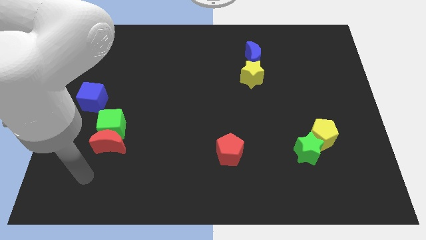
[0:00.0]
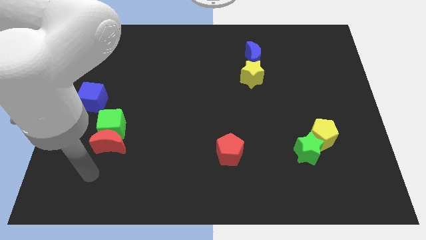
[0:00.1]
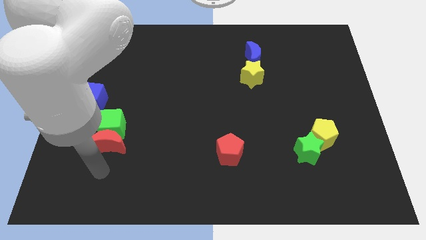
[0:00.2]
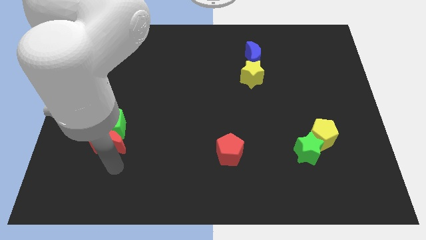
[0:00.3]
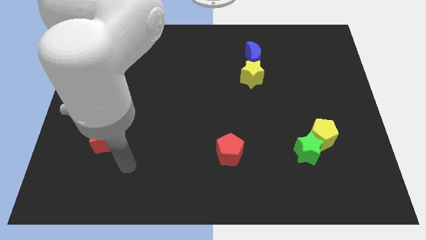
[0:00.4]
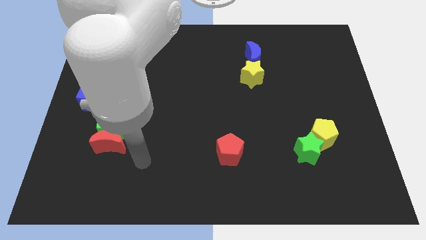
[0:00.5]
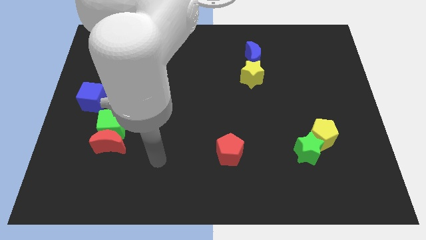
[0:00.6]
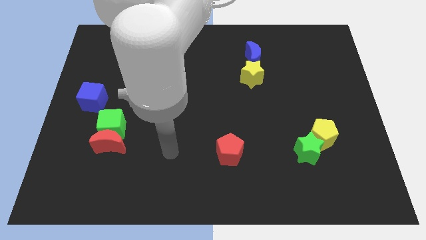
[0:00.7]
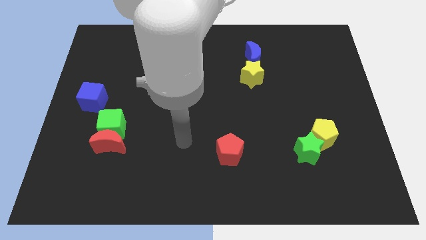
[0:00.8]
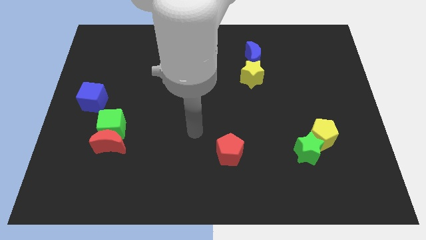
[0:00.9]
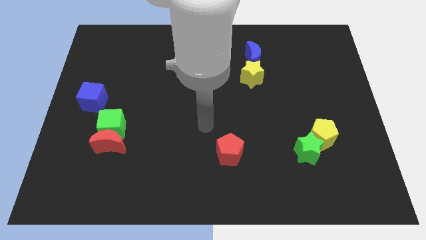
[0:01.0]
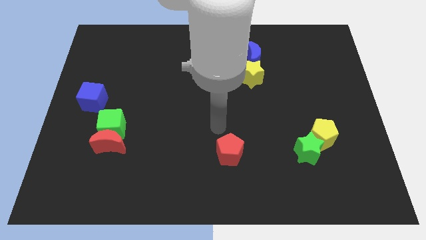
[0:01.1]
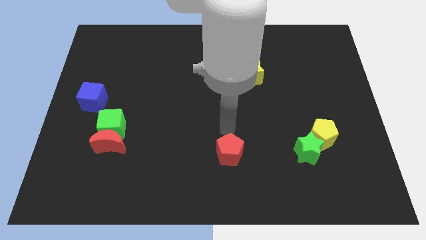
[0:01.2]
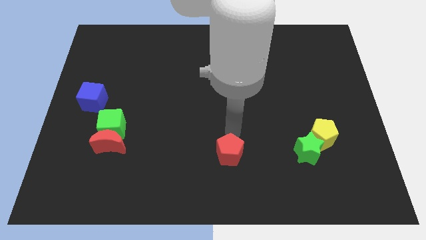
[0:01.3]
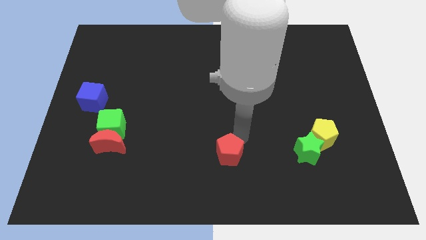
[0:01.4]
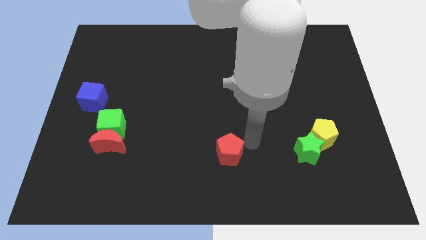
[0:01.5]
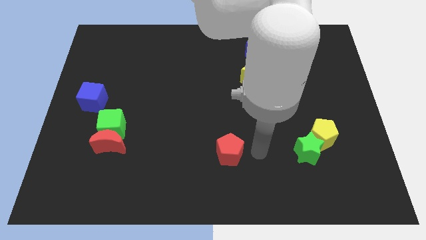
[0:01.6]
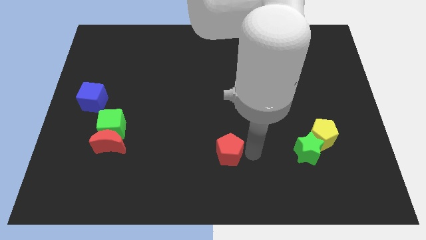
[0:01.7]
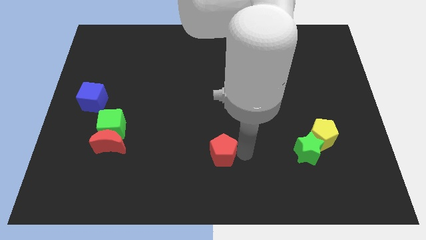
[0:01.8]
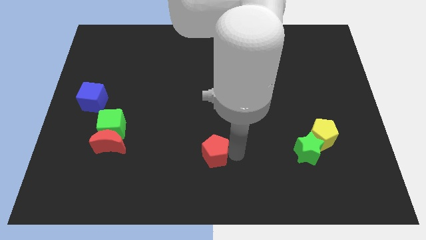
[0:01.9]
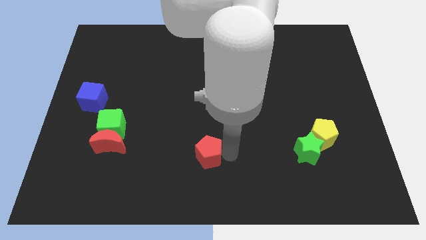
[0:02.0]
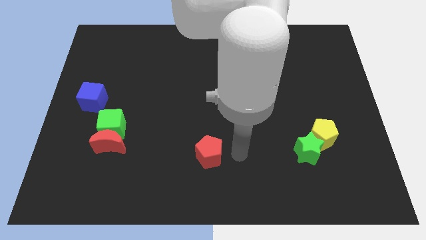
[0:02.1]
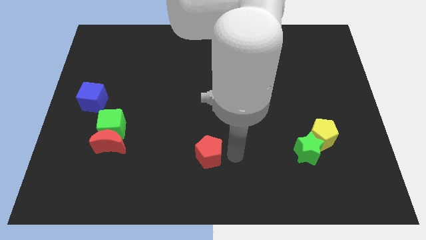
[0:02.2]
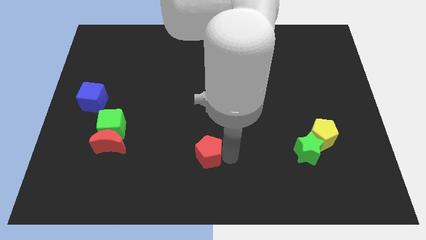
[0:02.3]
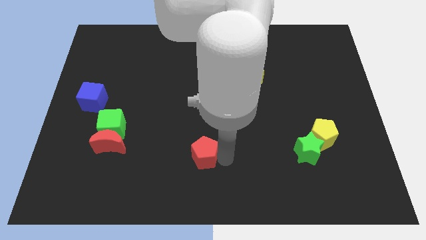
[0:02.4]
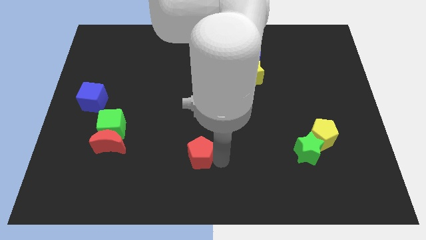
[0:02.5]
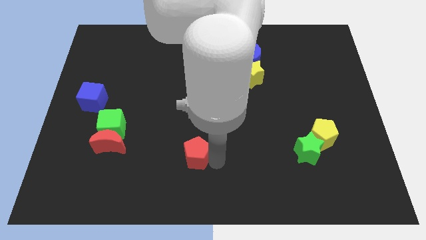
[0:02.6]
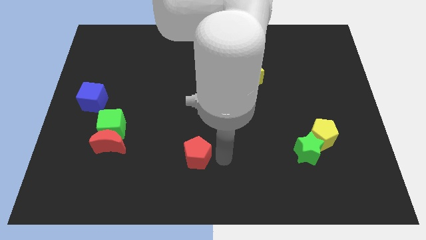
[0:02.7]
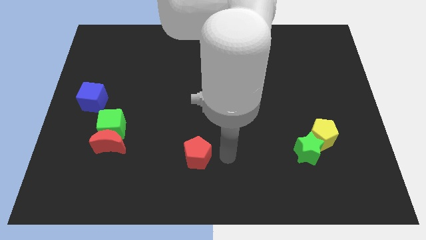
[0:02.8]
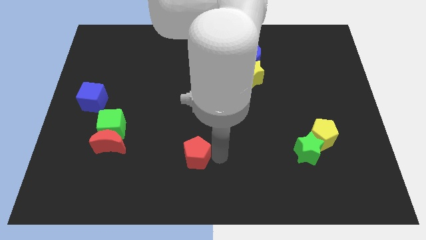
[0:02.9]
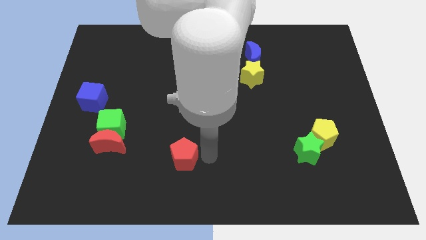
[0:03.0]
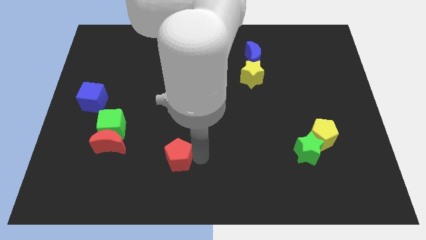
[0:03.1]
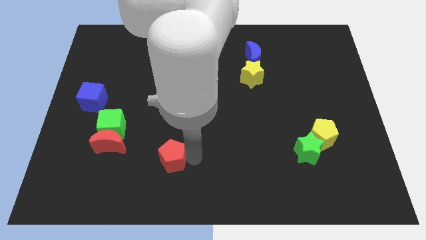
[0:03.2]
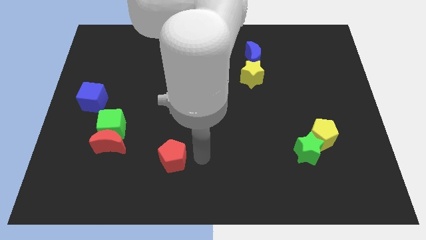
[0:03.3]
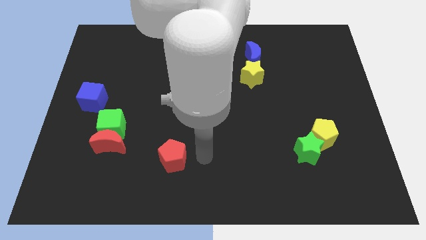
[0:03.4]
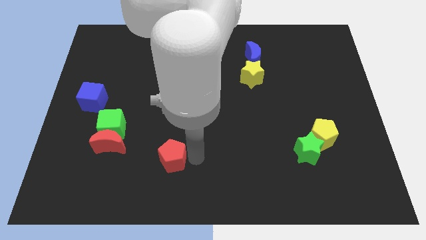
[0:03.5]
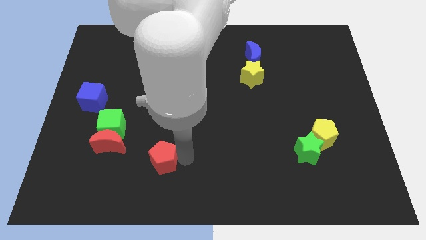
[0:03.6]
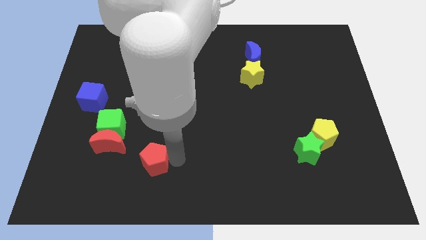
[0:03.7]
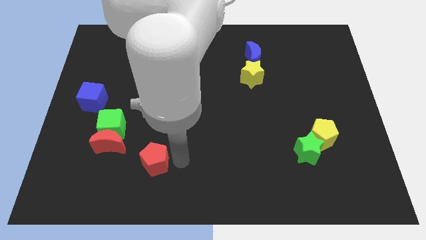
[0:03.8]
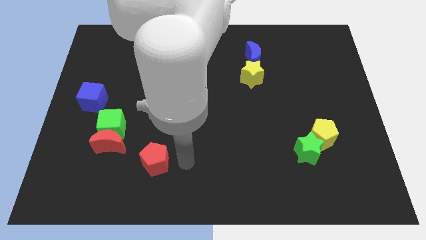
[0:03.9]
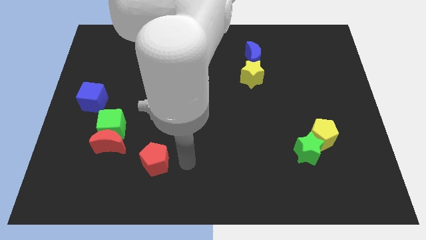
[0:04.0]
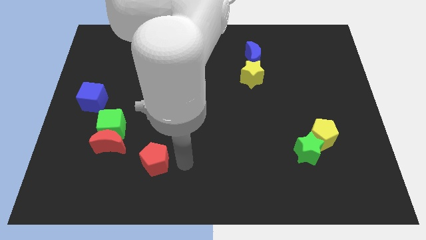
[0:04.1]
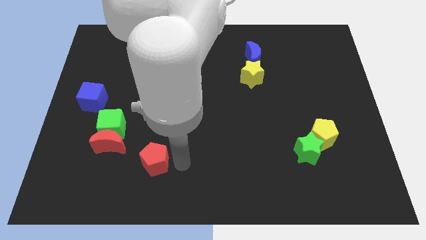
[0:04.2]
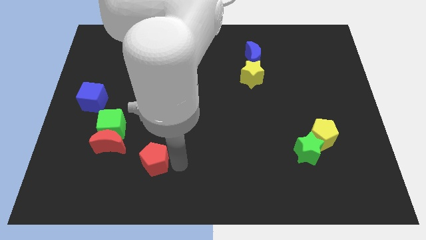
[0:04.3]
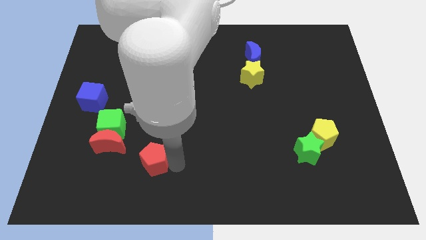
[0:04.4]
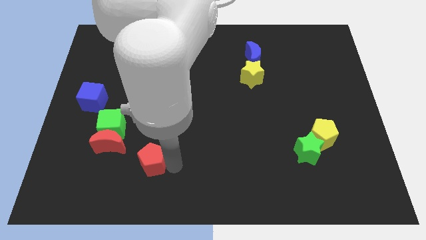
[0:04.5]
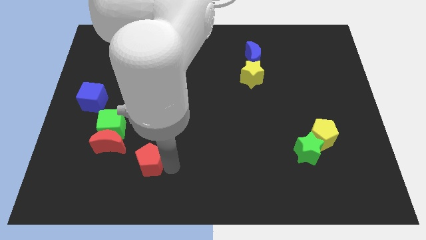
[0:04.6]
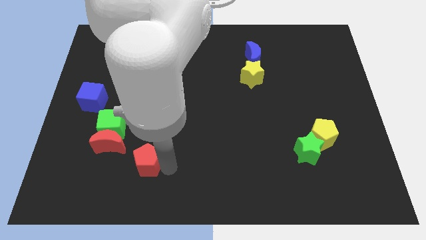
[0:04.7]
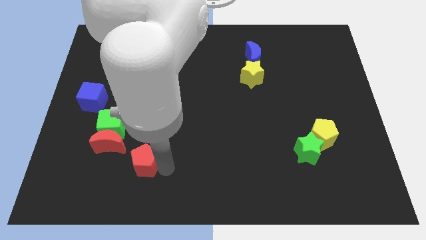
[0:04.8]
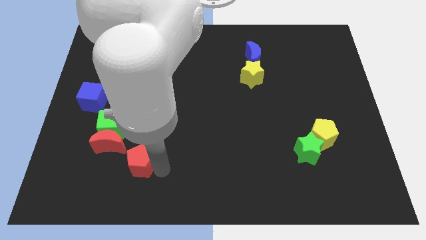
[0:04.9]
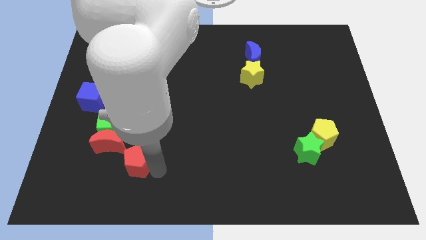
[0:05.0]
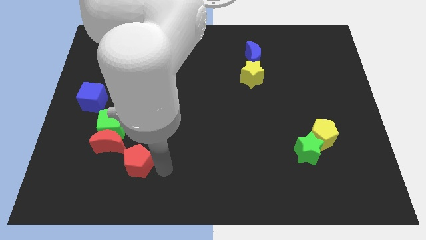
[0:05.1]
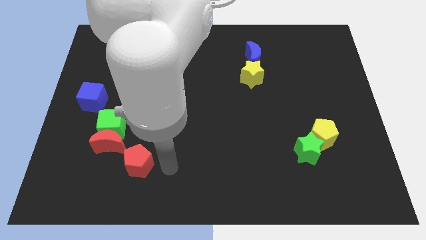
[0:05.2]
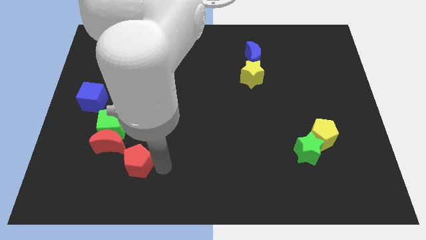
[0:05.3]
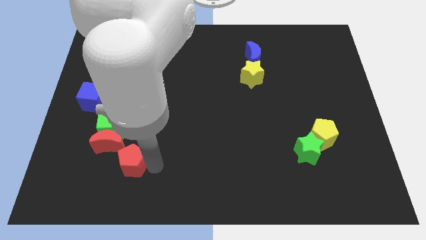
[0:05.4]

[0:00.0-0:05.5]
slide the red pentagon to the left

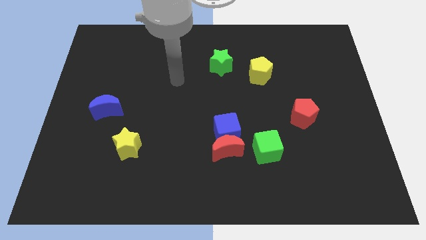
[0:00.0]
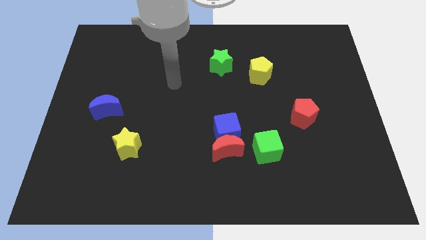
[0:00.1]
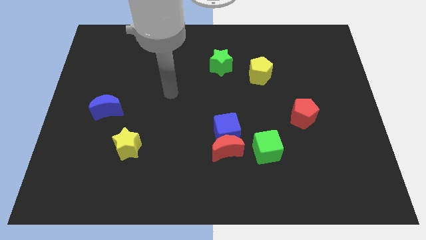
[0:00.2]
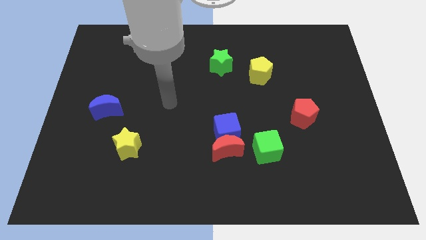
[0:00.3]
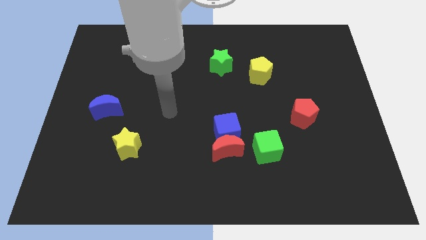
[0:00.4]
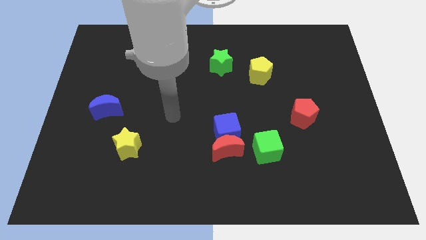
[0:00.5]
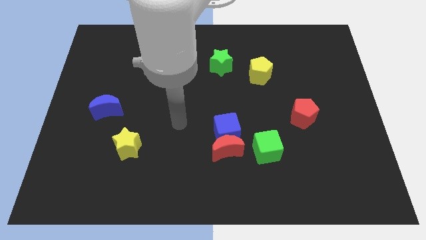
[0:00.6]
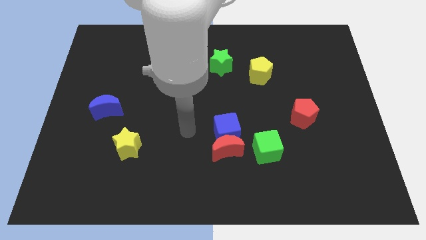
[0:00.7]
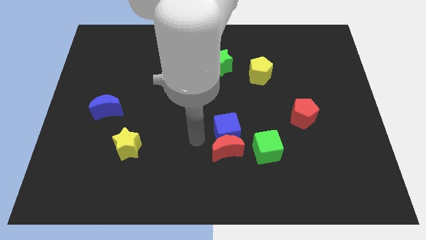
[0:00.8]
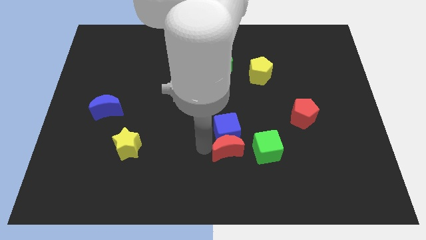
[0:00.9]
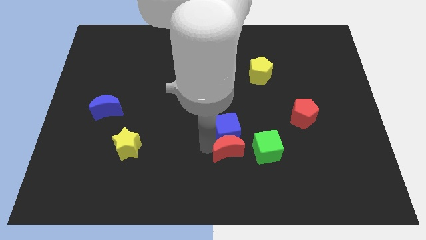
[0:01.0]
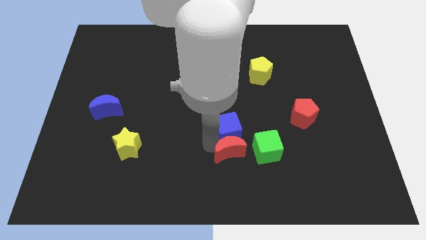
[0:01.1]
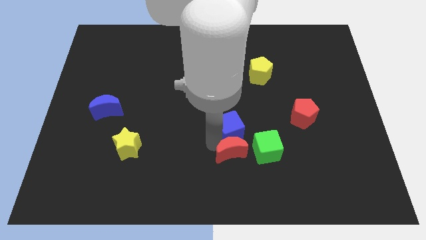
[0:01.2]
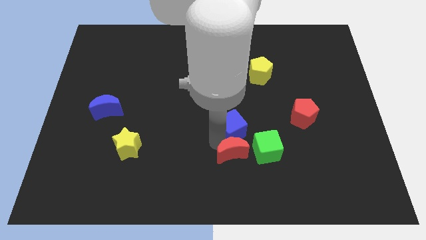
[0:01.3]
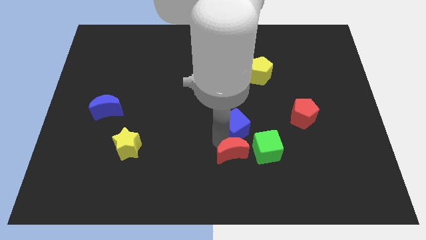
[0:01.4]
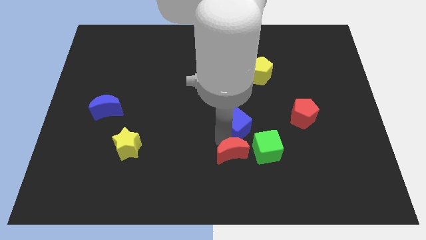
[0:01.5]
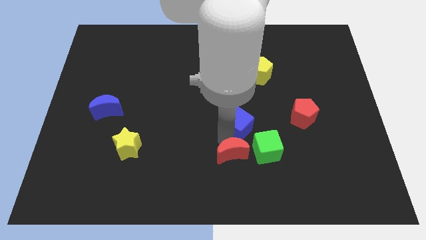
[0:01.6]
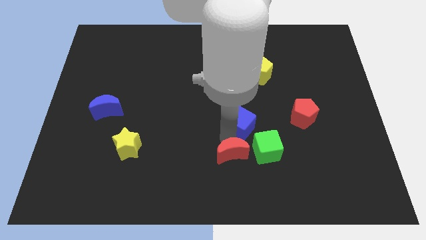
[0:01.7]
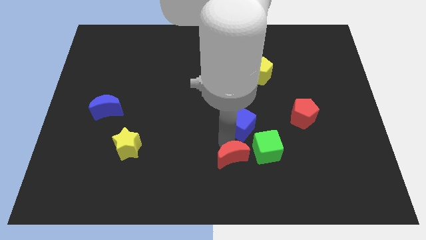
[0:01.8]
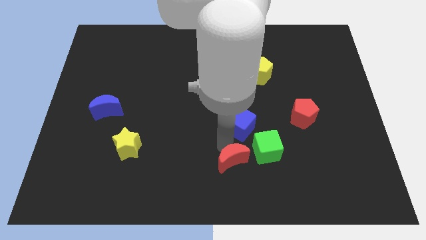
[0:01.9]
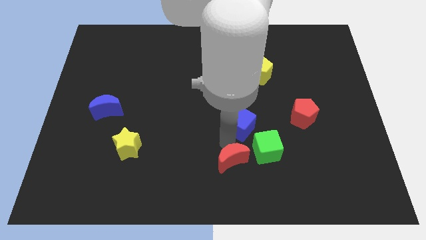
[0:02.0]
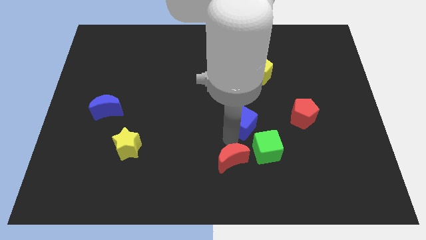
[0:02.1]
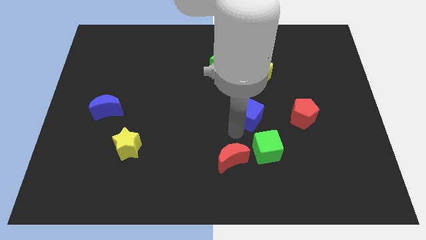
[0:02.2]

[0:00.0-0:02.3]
slightly move the blue cube diagonally upwards and to the right
